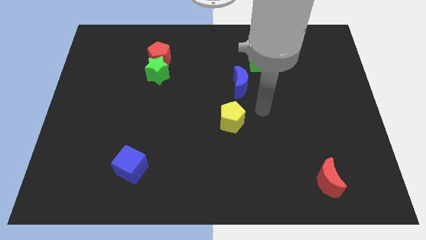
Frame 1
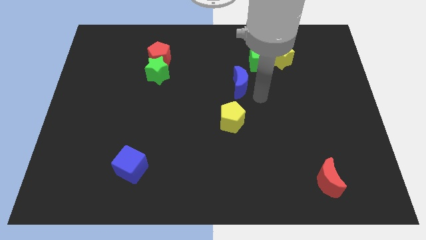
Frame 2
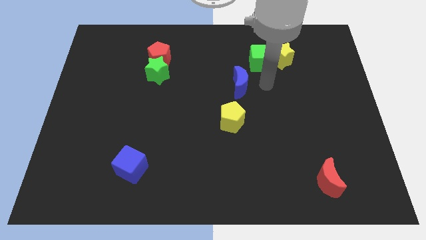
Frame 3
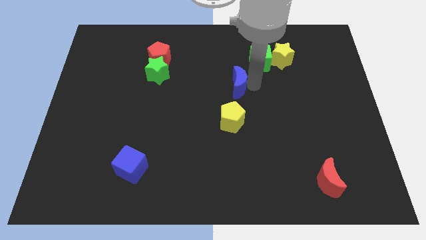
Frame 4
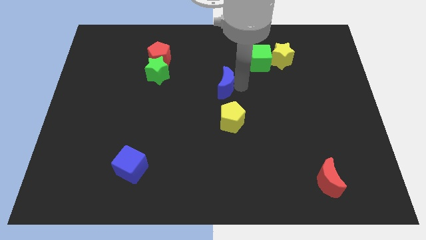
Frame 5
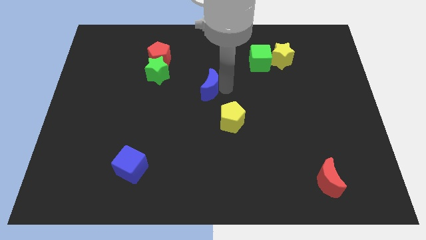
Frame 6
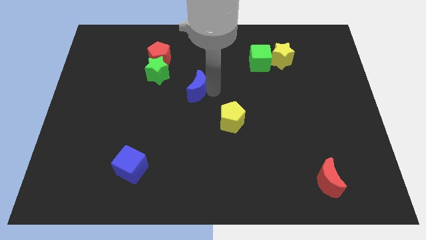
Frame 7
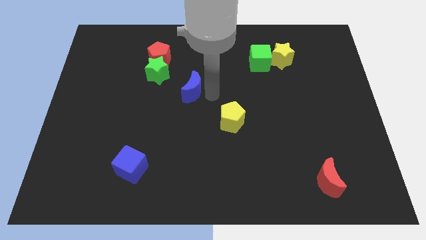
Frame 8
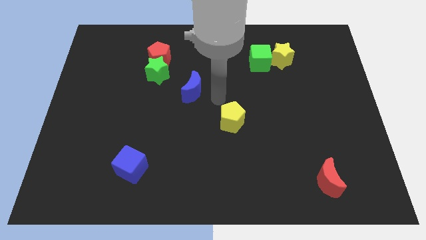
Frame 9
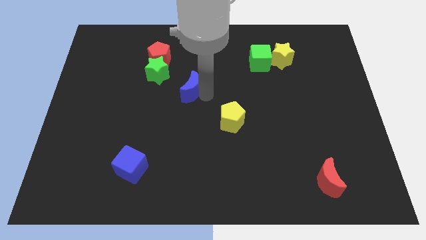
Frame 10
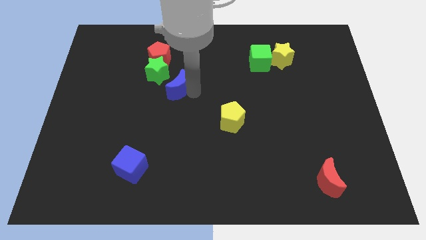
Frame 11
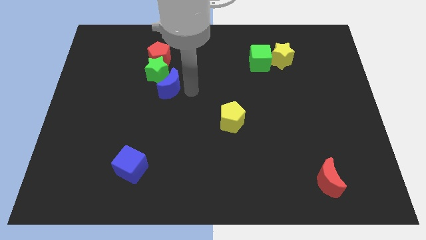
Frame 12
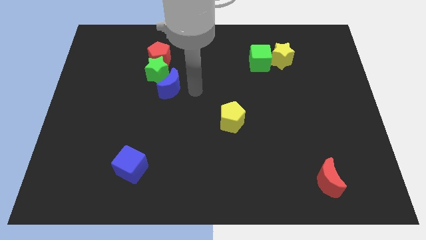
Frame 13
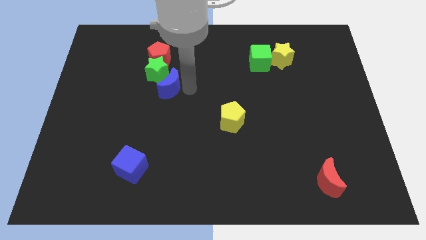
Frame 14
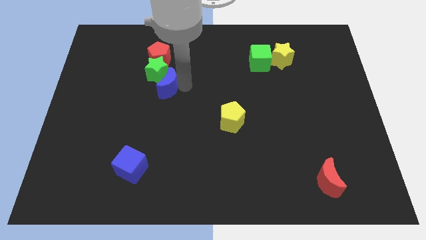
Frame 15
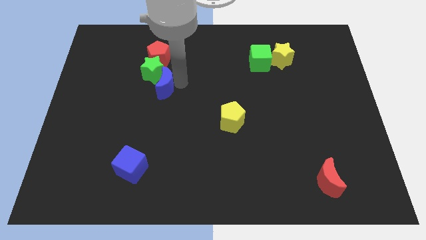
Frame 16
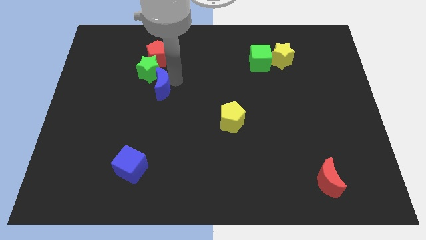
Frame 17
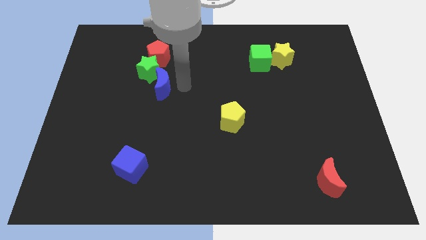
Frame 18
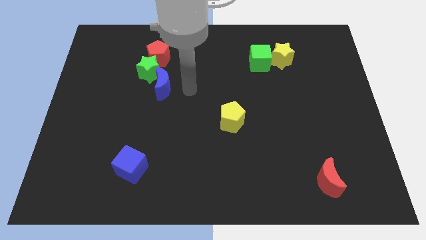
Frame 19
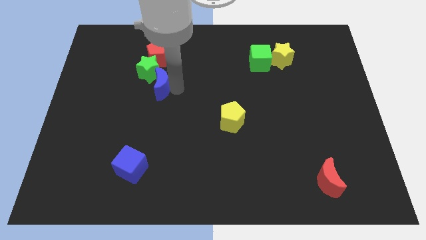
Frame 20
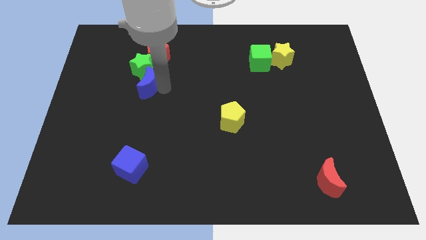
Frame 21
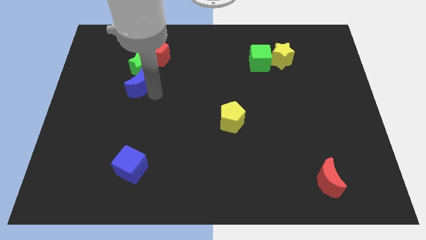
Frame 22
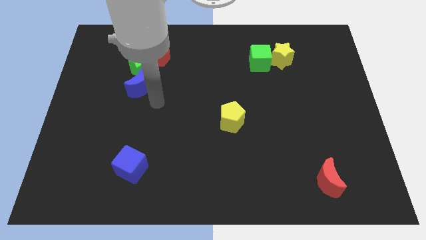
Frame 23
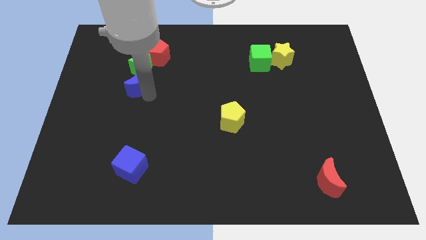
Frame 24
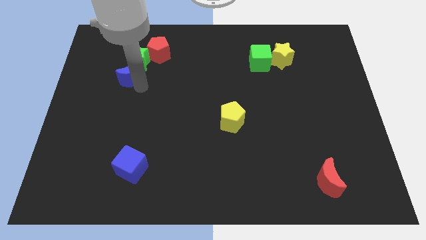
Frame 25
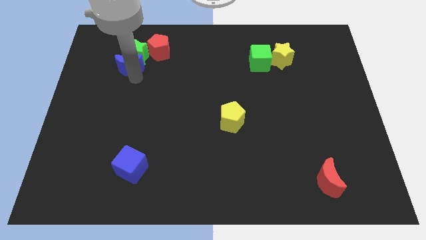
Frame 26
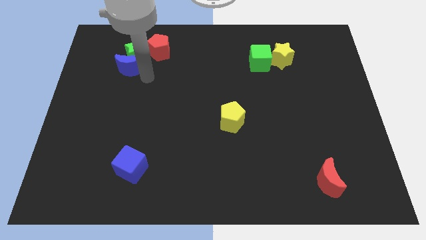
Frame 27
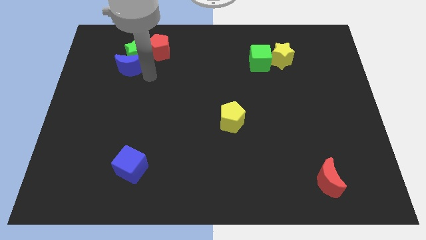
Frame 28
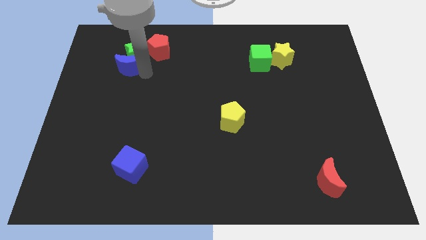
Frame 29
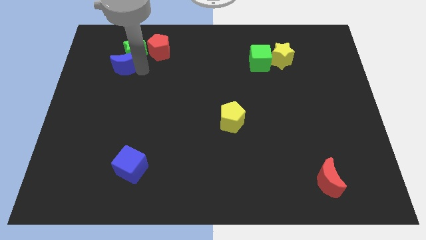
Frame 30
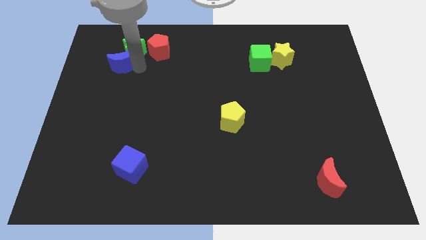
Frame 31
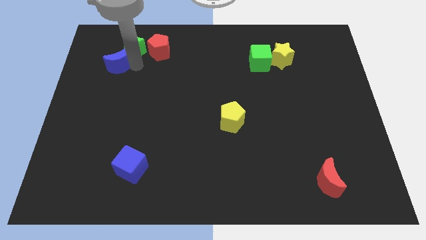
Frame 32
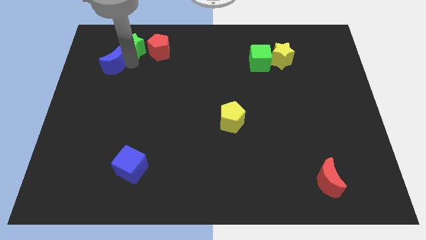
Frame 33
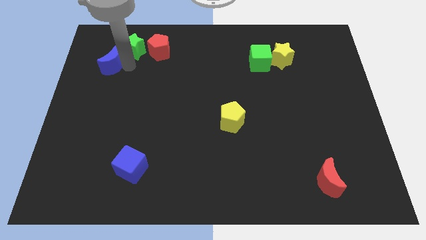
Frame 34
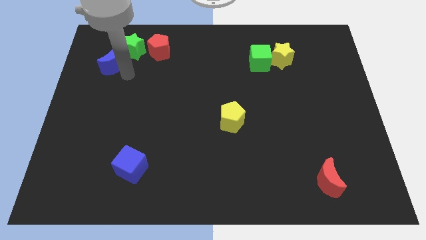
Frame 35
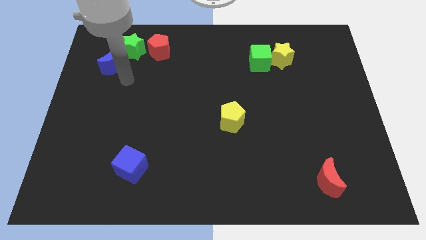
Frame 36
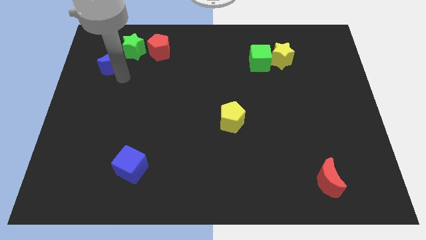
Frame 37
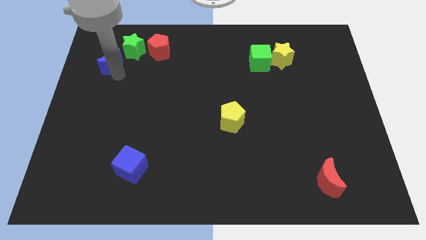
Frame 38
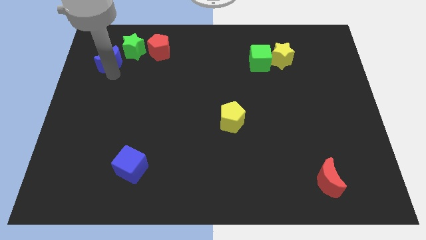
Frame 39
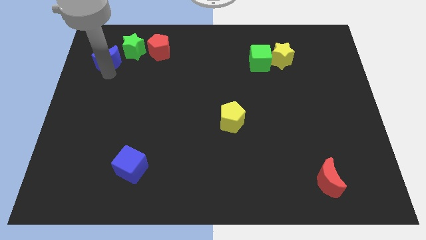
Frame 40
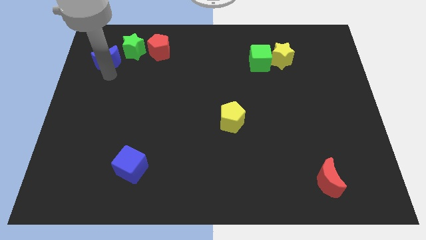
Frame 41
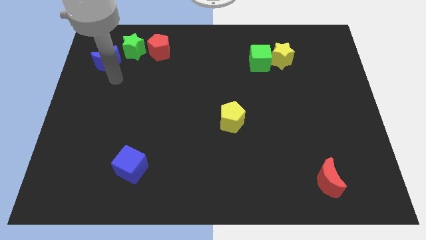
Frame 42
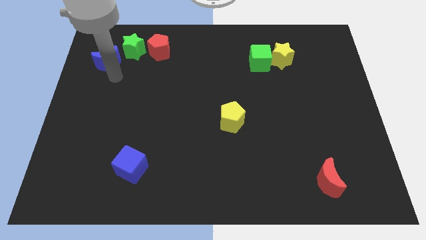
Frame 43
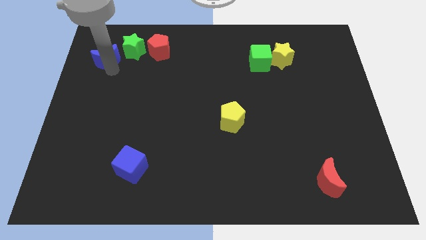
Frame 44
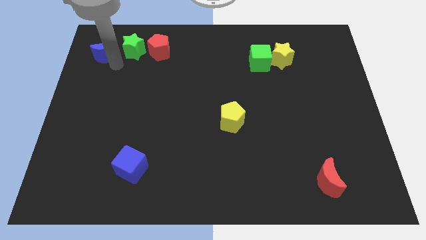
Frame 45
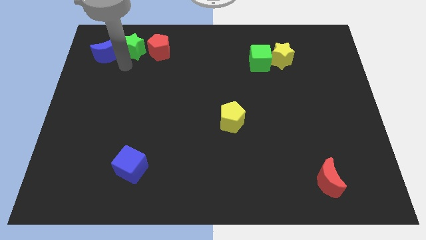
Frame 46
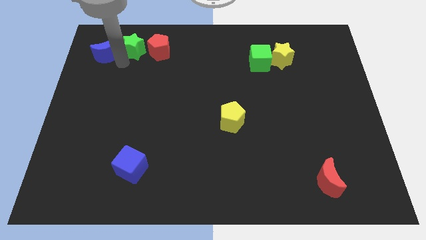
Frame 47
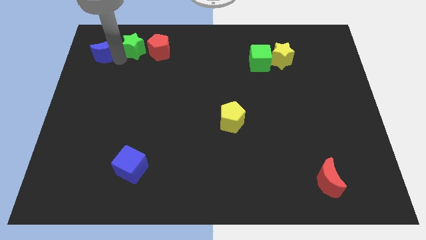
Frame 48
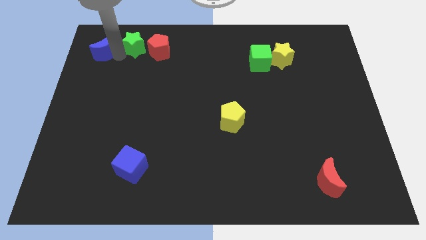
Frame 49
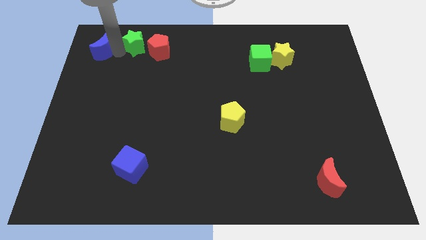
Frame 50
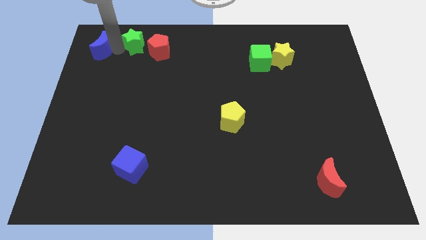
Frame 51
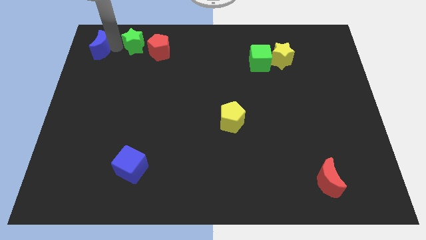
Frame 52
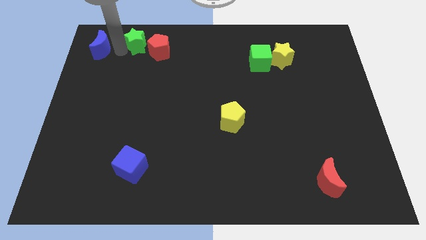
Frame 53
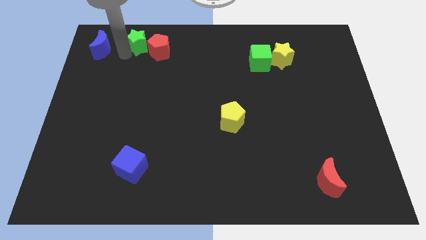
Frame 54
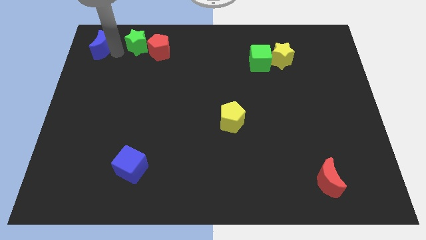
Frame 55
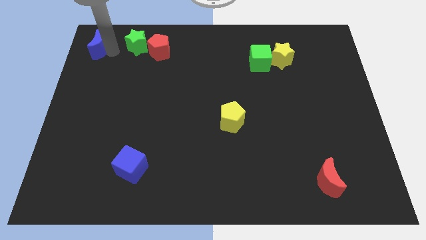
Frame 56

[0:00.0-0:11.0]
slide the blue moon to the top left corner
